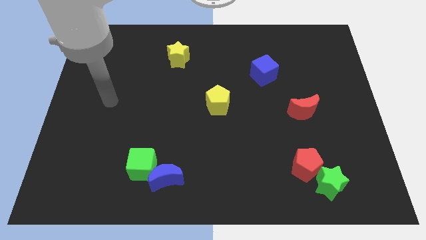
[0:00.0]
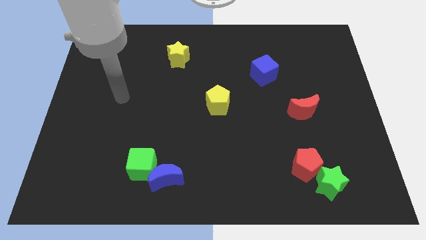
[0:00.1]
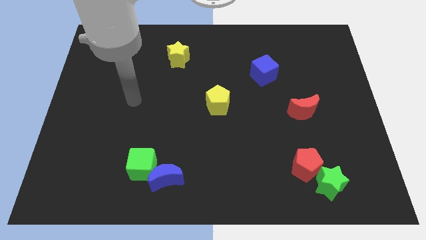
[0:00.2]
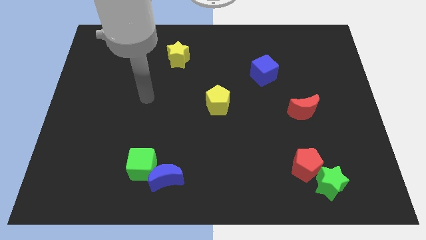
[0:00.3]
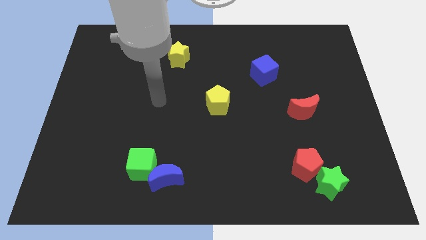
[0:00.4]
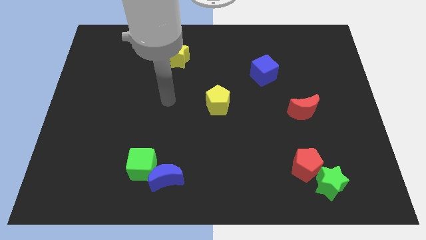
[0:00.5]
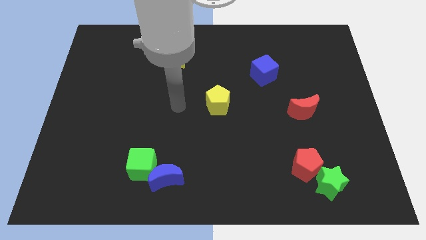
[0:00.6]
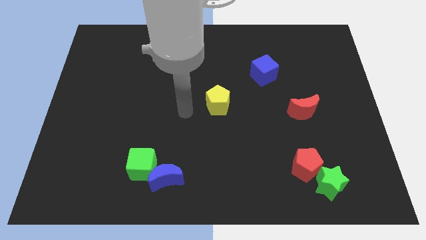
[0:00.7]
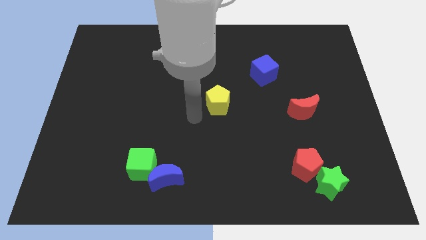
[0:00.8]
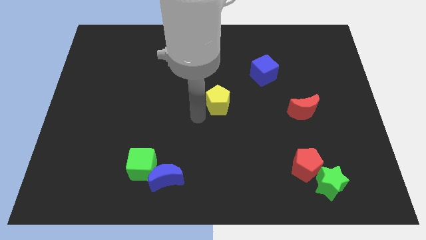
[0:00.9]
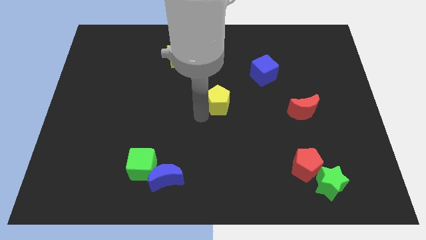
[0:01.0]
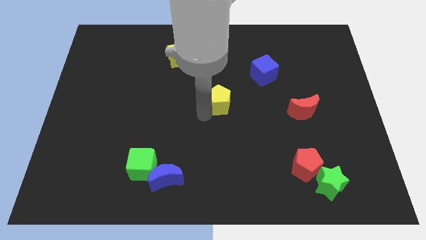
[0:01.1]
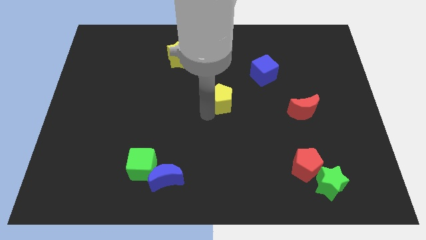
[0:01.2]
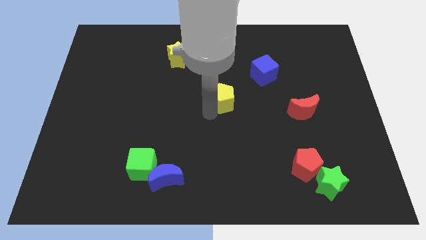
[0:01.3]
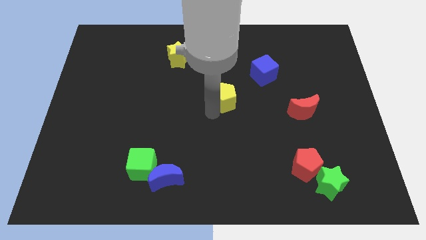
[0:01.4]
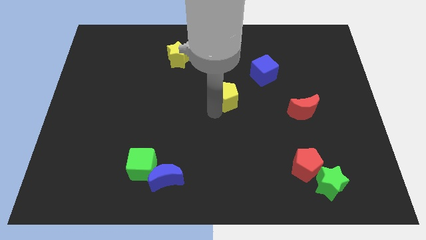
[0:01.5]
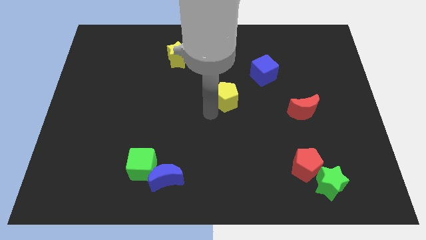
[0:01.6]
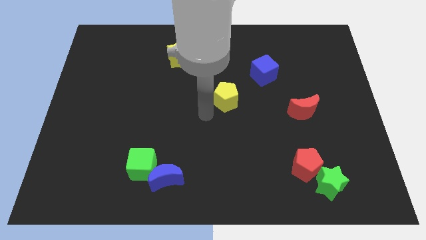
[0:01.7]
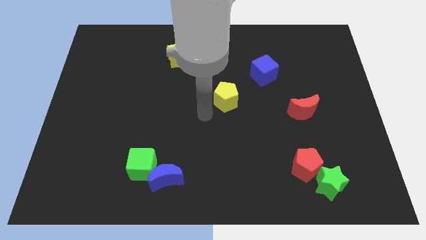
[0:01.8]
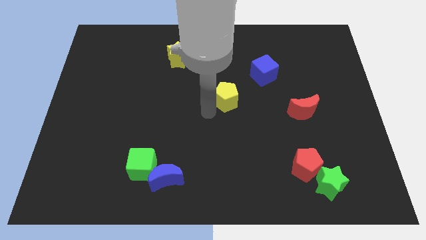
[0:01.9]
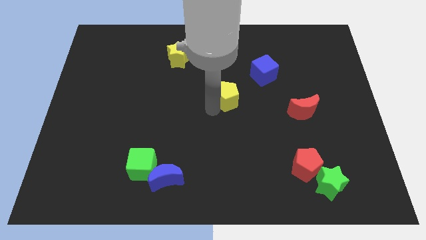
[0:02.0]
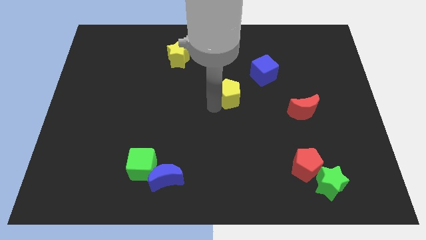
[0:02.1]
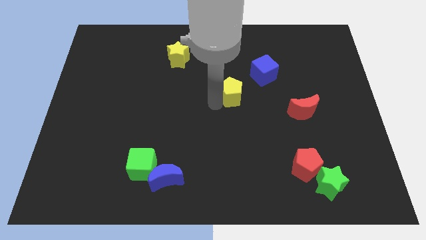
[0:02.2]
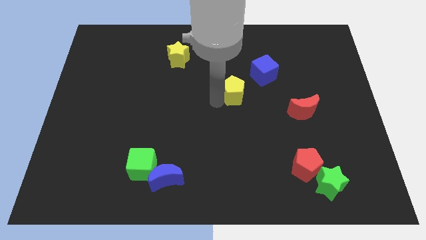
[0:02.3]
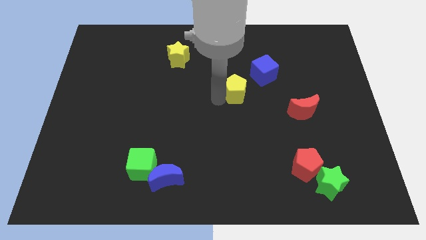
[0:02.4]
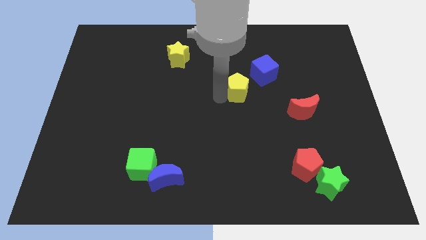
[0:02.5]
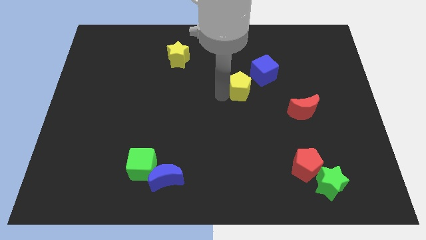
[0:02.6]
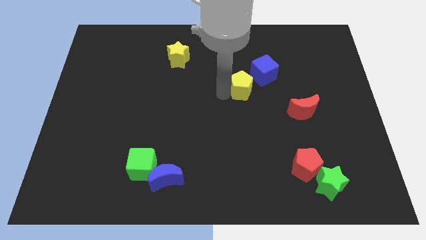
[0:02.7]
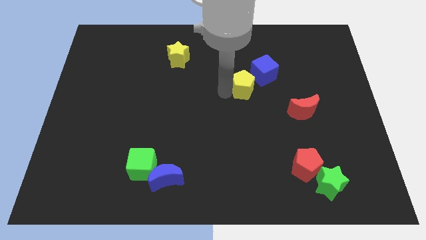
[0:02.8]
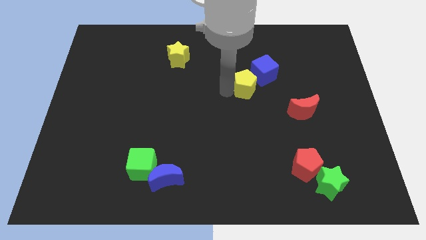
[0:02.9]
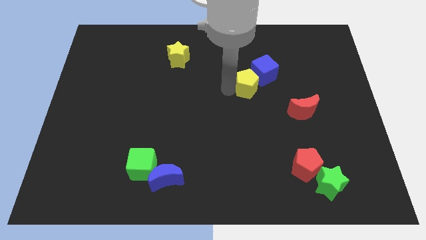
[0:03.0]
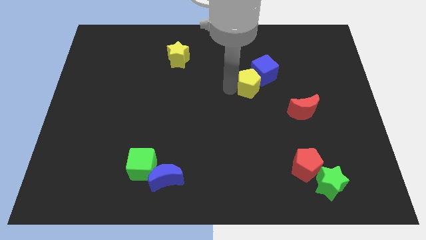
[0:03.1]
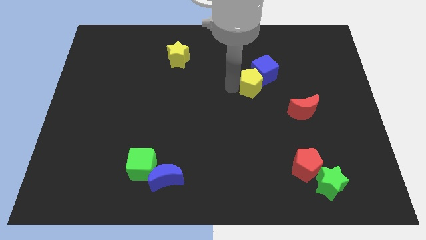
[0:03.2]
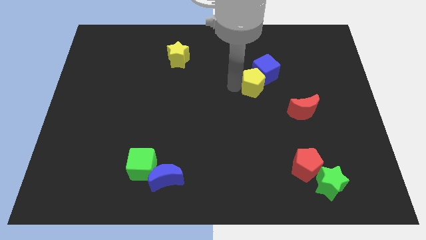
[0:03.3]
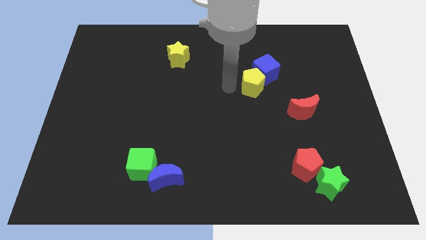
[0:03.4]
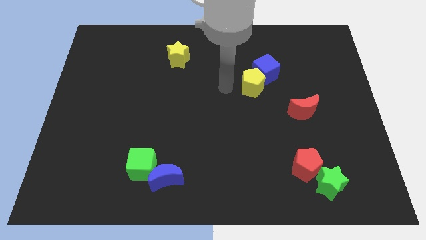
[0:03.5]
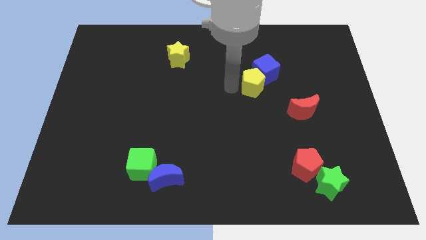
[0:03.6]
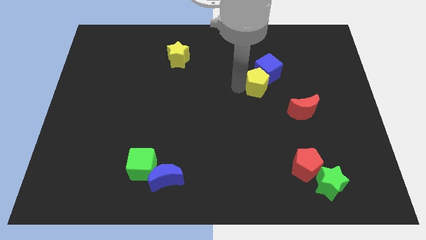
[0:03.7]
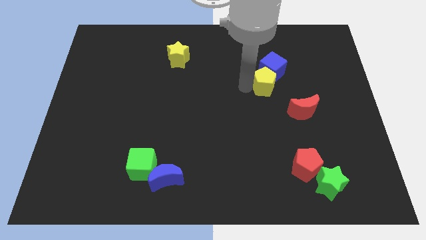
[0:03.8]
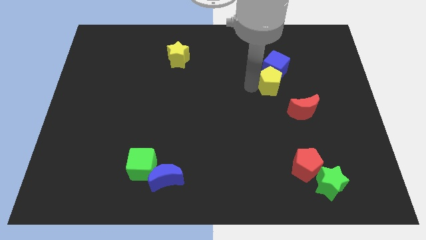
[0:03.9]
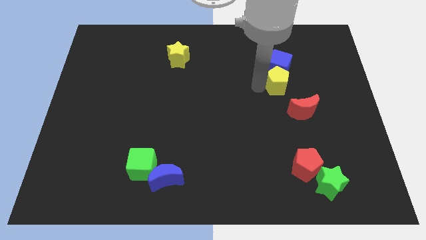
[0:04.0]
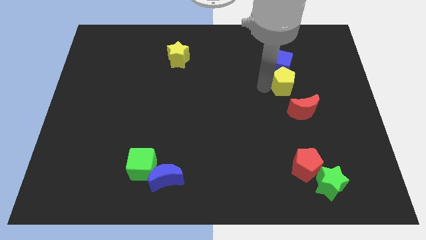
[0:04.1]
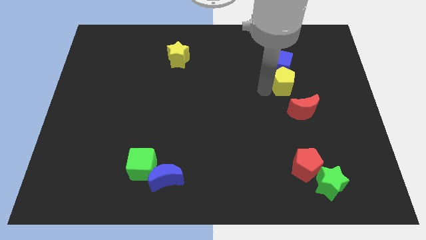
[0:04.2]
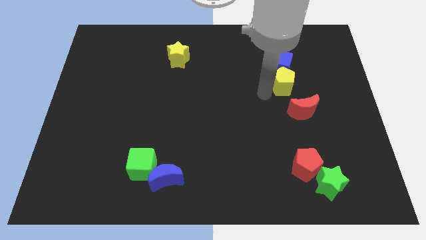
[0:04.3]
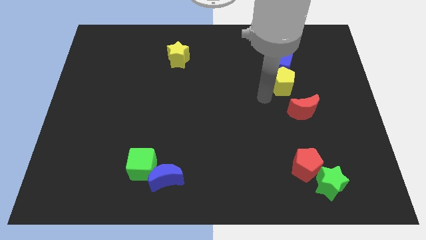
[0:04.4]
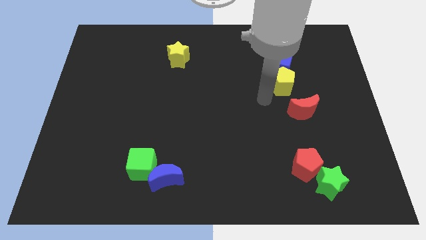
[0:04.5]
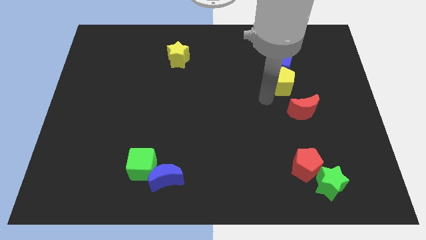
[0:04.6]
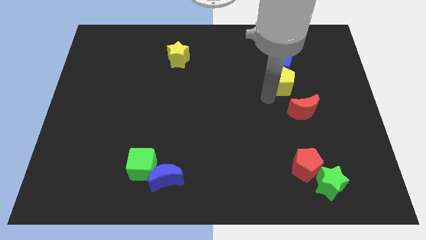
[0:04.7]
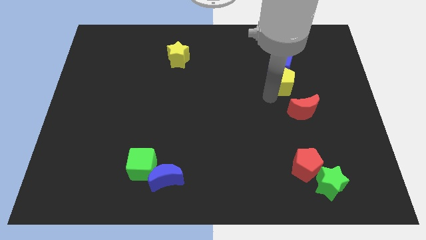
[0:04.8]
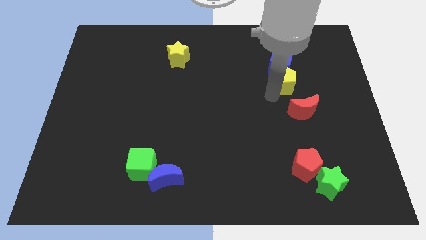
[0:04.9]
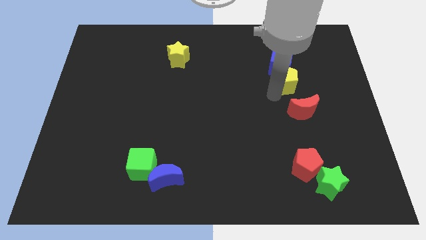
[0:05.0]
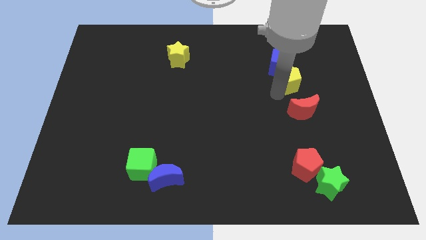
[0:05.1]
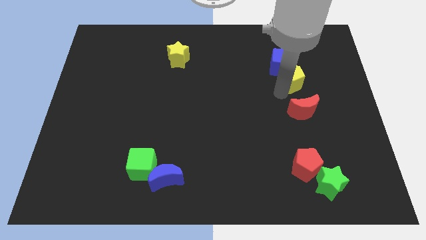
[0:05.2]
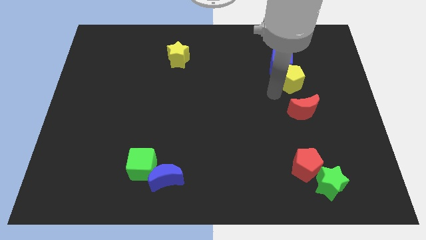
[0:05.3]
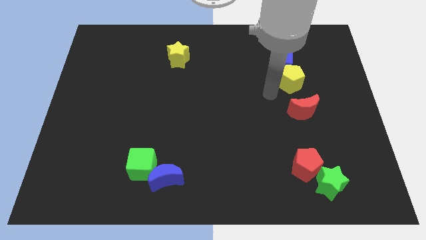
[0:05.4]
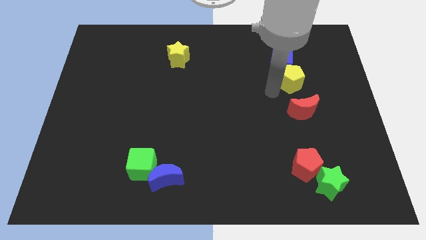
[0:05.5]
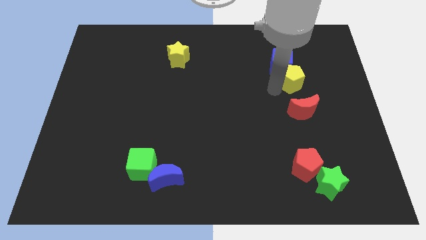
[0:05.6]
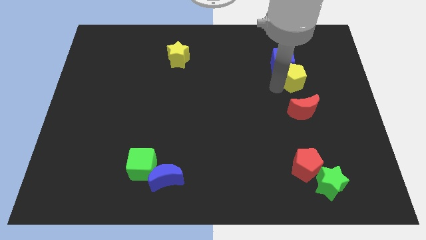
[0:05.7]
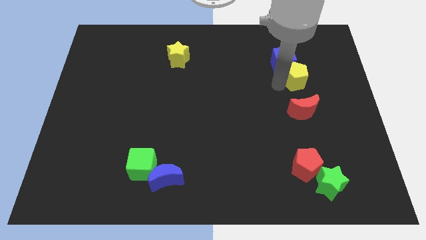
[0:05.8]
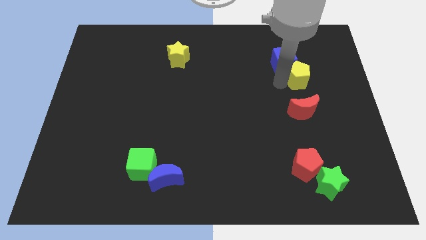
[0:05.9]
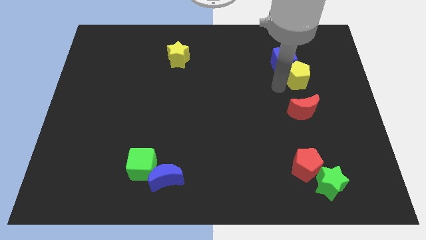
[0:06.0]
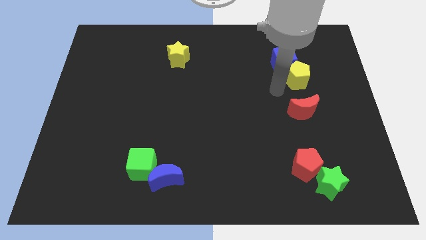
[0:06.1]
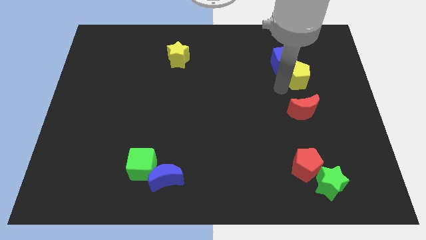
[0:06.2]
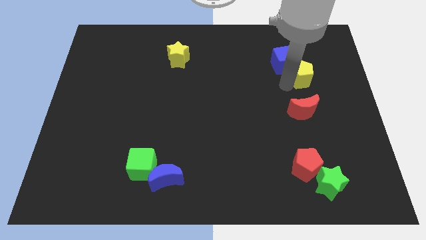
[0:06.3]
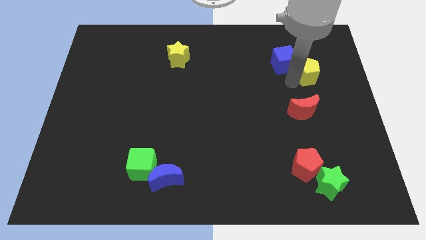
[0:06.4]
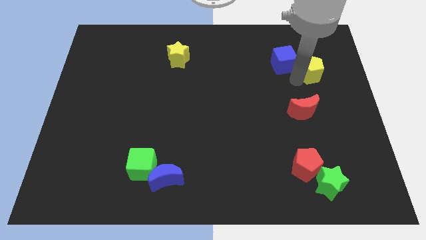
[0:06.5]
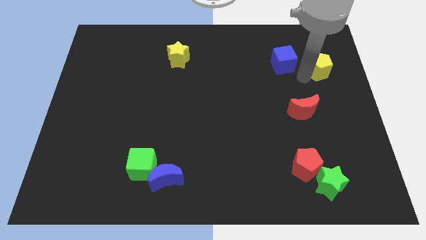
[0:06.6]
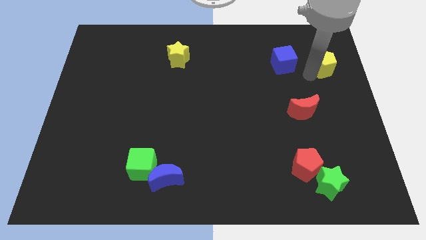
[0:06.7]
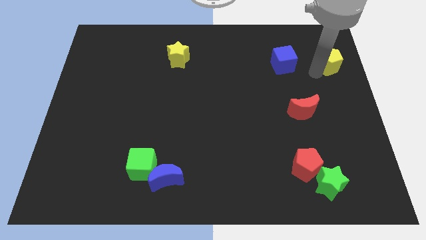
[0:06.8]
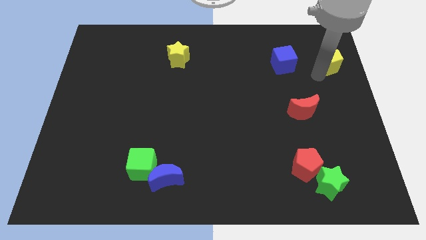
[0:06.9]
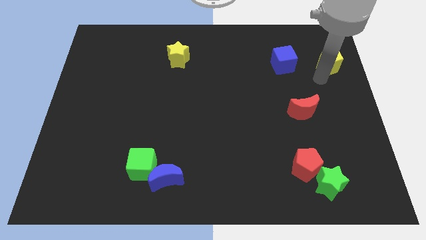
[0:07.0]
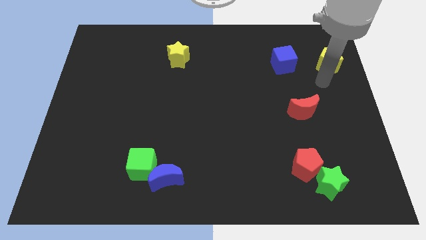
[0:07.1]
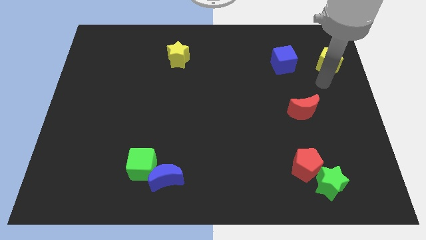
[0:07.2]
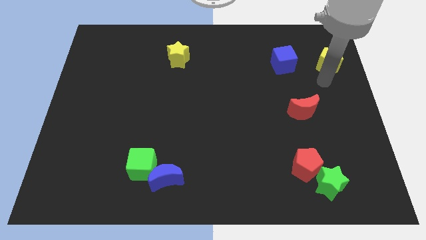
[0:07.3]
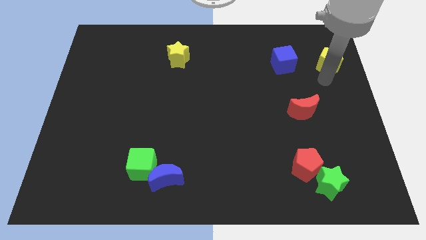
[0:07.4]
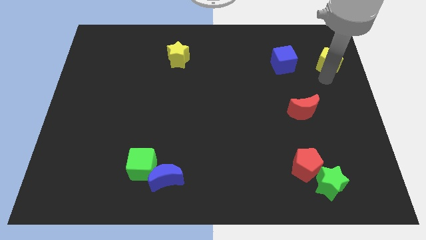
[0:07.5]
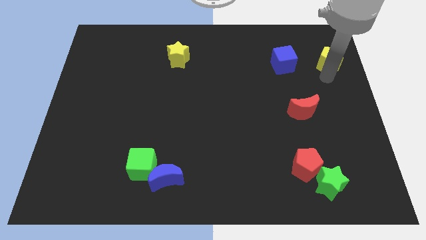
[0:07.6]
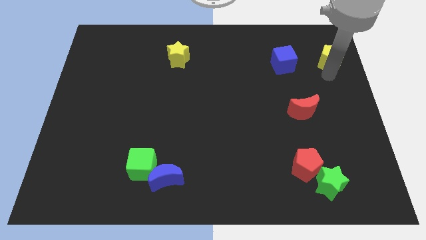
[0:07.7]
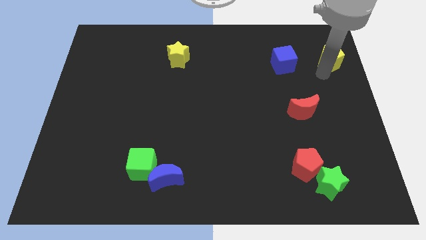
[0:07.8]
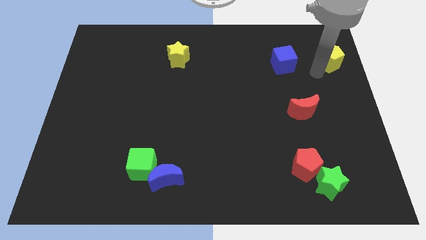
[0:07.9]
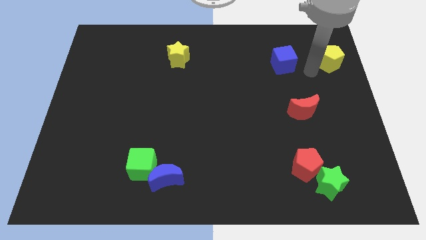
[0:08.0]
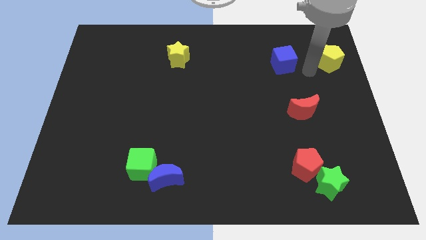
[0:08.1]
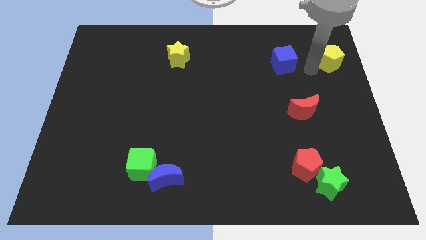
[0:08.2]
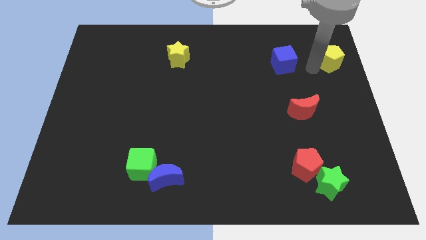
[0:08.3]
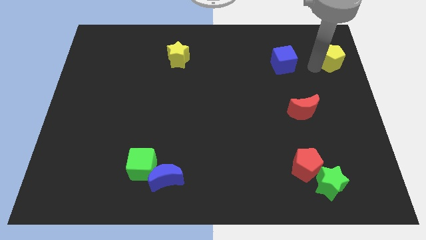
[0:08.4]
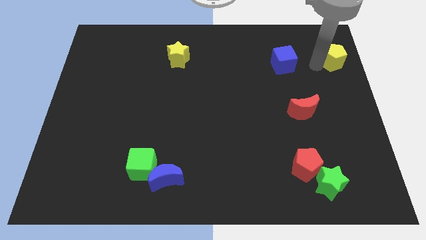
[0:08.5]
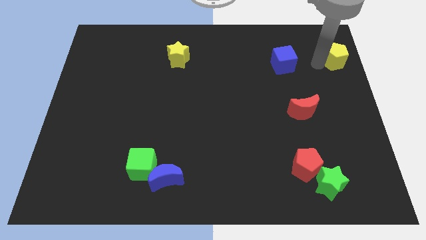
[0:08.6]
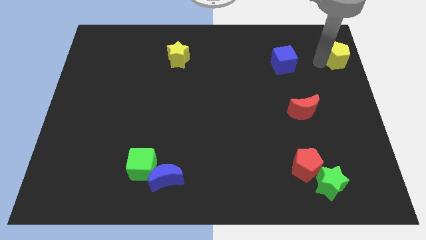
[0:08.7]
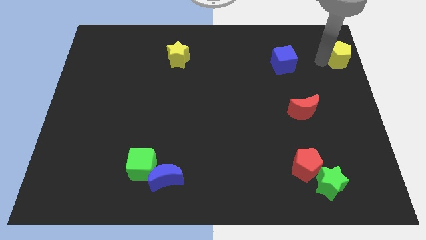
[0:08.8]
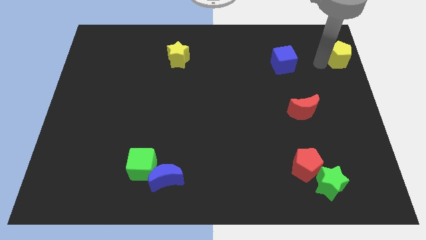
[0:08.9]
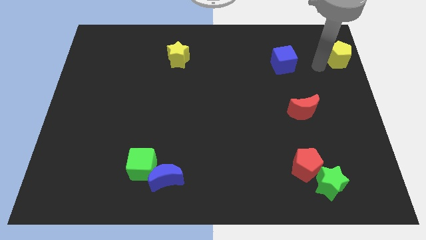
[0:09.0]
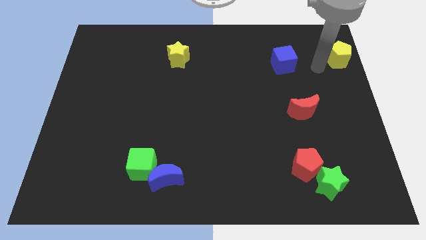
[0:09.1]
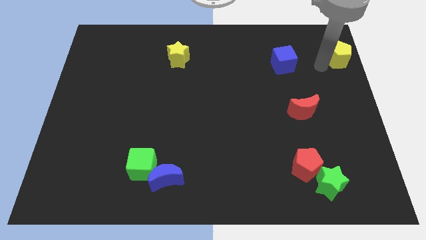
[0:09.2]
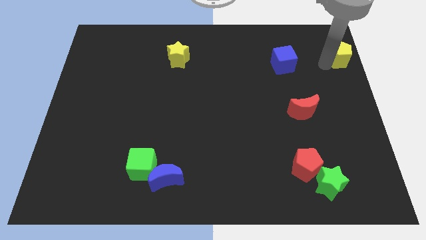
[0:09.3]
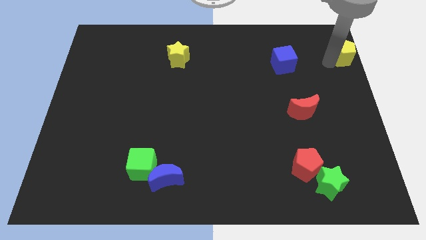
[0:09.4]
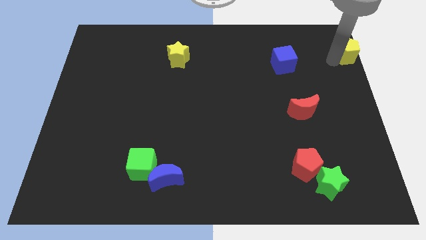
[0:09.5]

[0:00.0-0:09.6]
push the yellow pentagon to the top right
